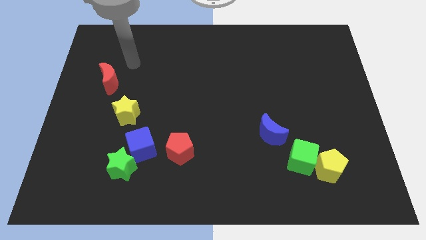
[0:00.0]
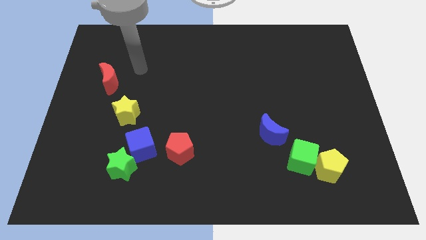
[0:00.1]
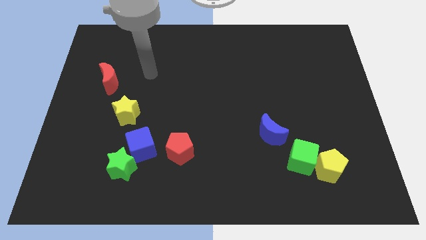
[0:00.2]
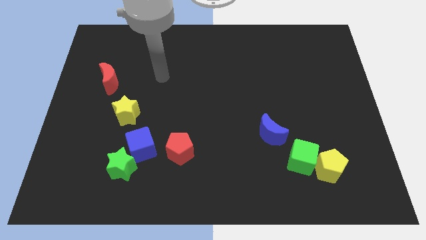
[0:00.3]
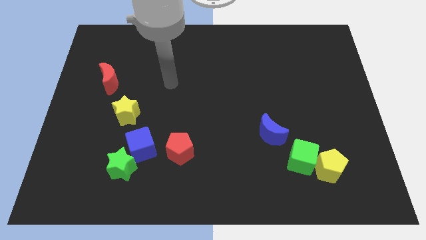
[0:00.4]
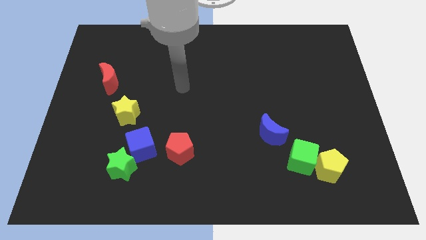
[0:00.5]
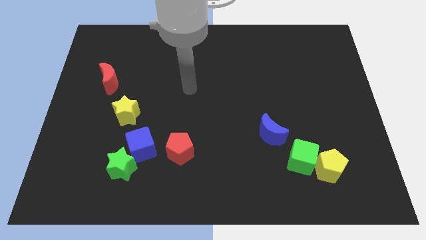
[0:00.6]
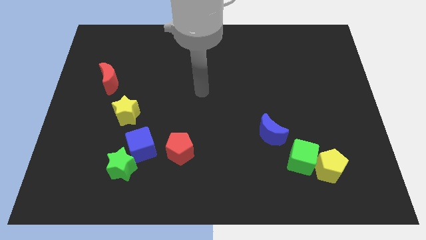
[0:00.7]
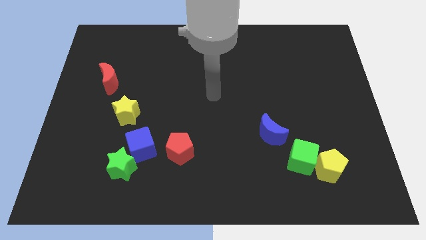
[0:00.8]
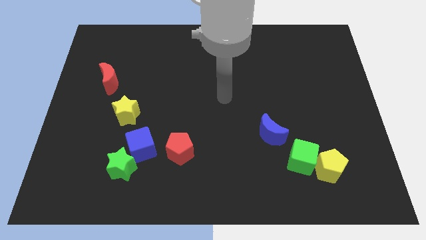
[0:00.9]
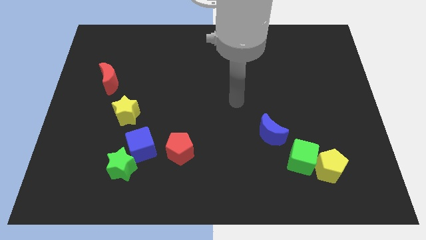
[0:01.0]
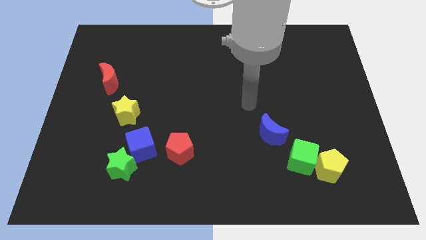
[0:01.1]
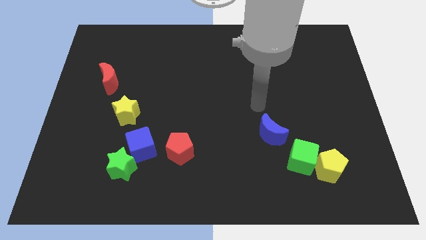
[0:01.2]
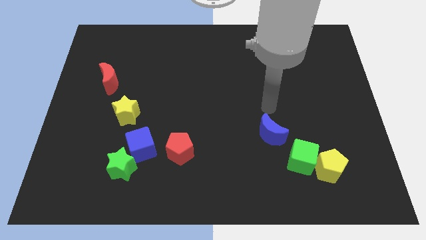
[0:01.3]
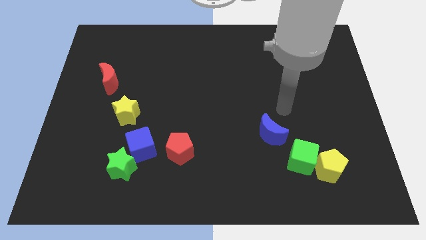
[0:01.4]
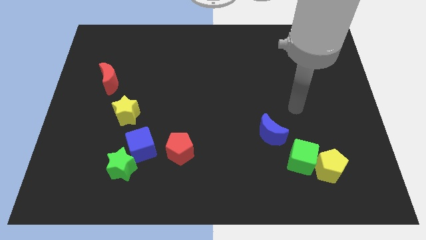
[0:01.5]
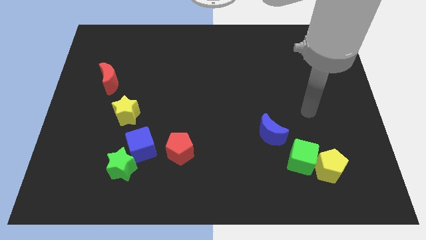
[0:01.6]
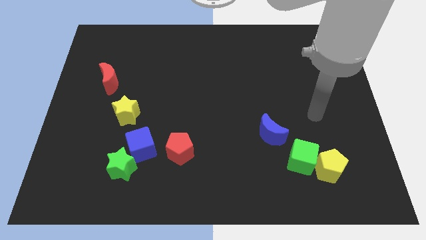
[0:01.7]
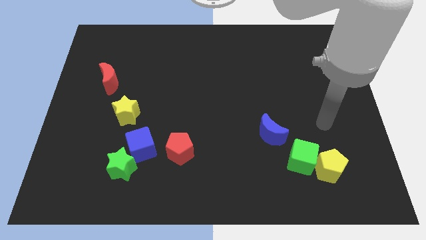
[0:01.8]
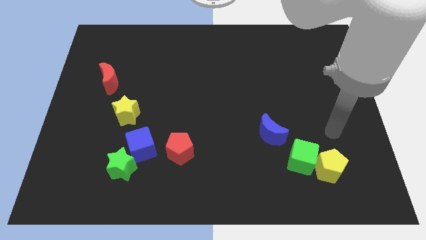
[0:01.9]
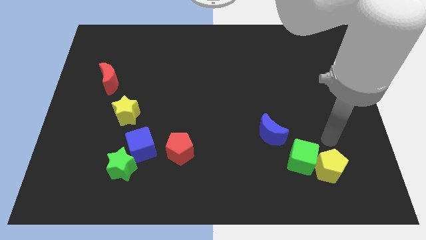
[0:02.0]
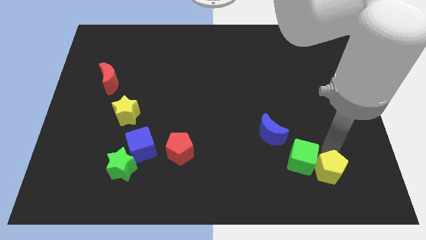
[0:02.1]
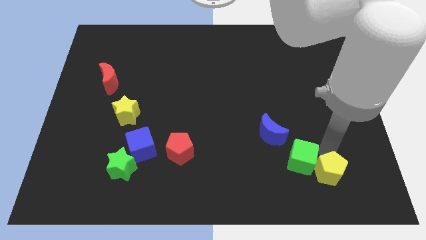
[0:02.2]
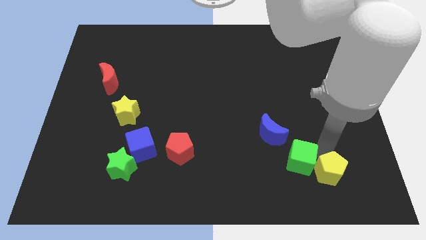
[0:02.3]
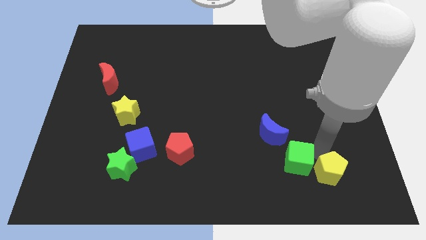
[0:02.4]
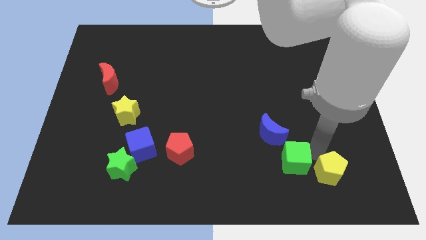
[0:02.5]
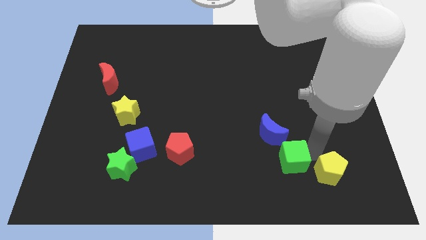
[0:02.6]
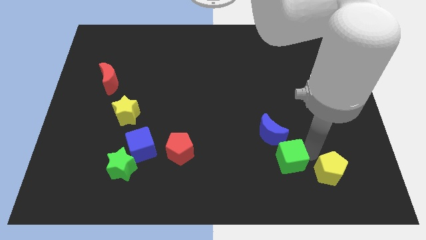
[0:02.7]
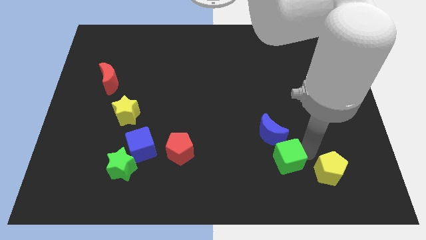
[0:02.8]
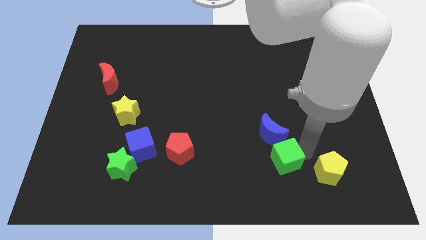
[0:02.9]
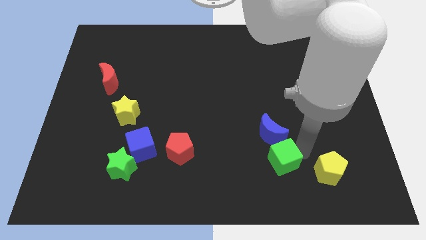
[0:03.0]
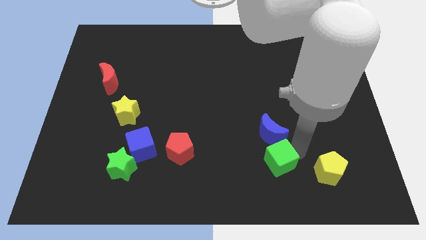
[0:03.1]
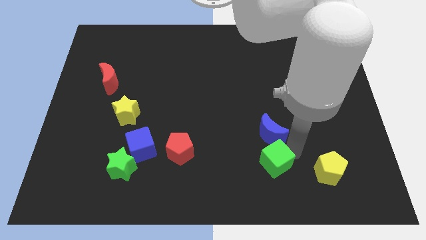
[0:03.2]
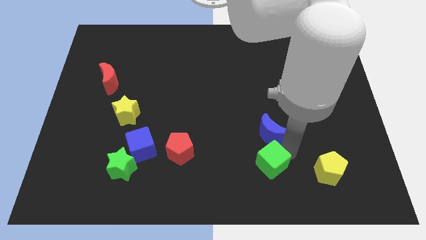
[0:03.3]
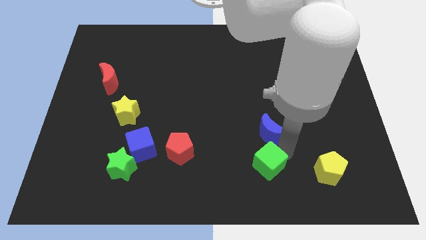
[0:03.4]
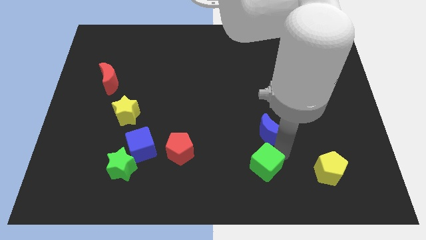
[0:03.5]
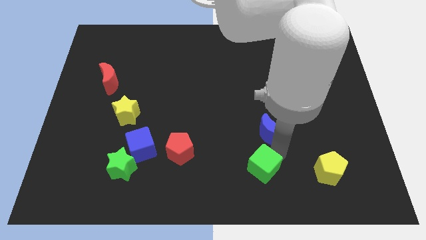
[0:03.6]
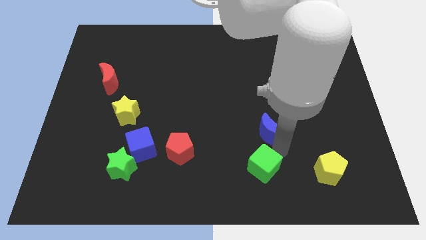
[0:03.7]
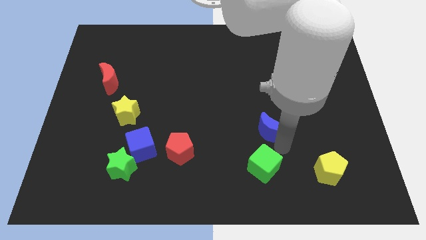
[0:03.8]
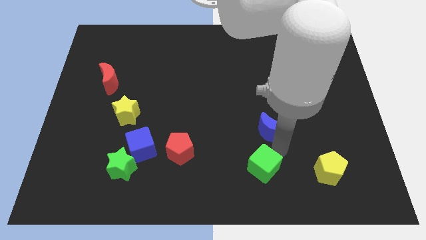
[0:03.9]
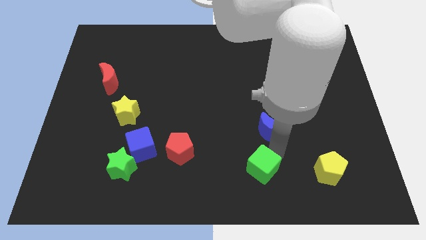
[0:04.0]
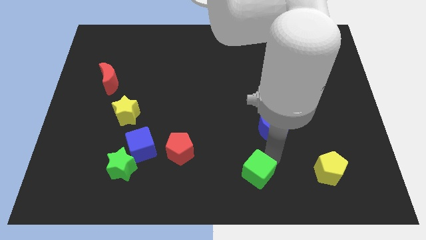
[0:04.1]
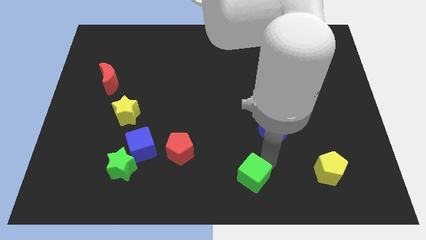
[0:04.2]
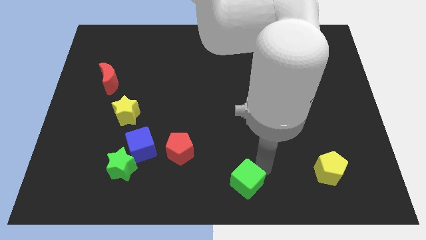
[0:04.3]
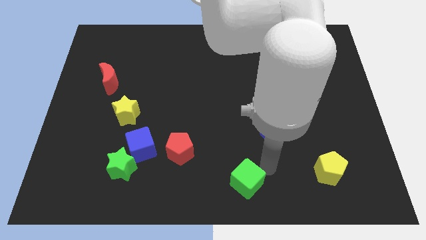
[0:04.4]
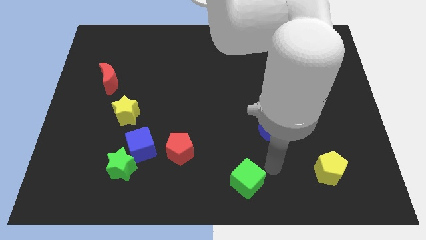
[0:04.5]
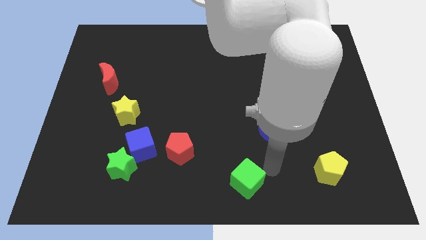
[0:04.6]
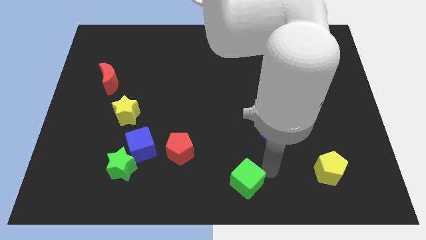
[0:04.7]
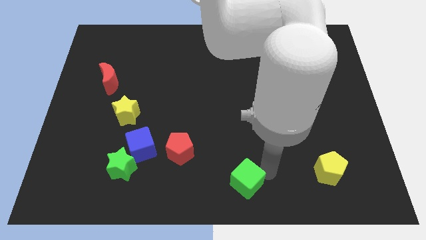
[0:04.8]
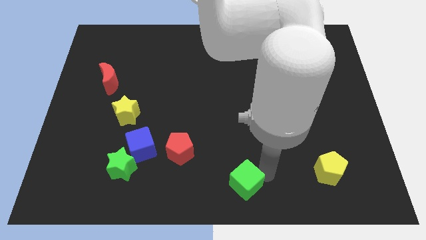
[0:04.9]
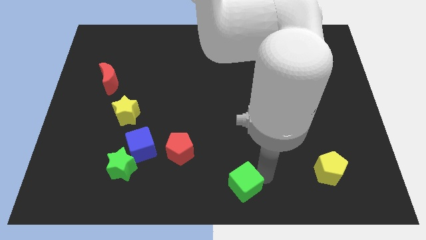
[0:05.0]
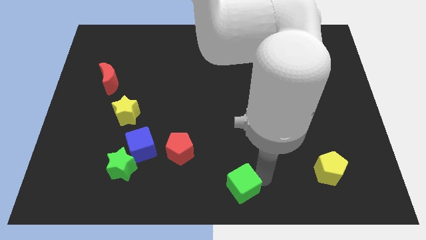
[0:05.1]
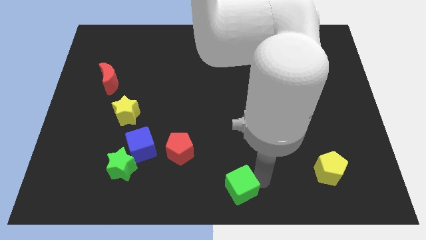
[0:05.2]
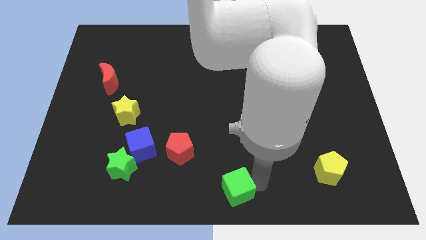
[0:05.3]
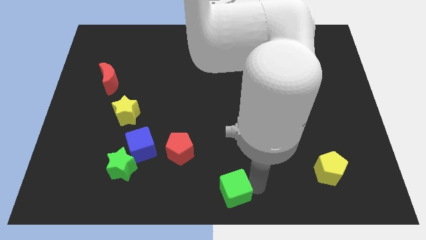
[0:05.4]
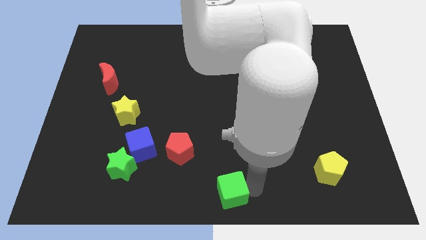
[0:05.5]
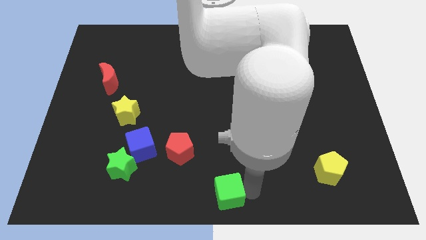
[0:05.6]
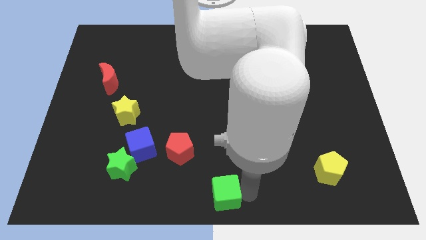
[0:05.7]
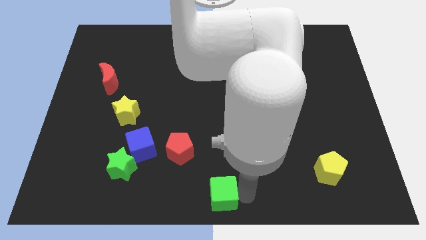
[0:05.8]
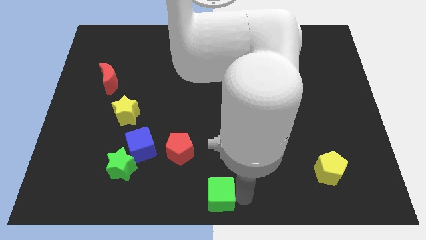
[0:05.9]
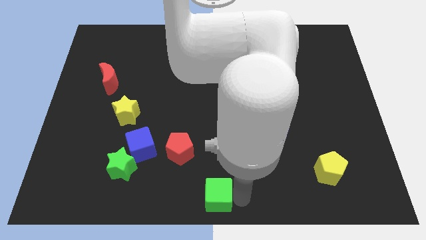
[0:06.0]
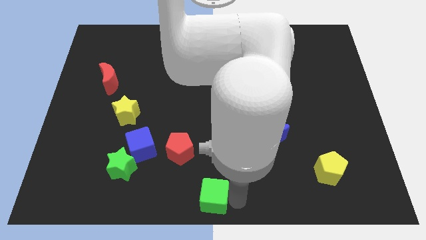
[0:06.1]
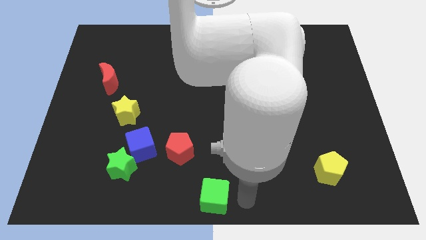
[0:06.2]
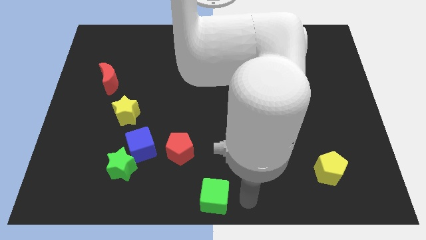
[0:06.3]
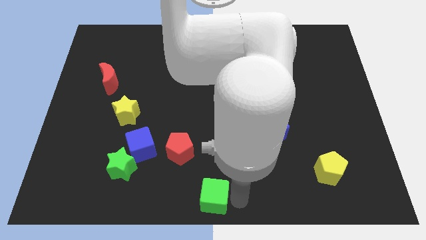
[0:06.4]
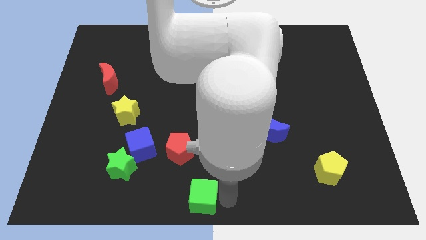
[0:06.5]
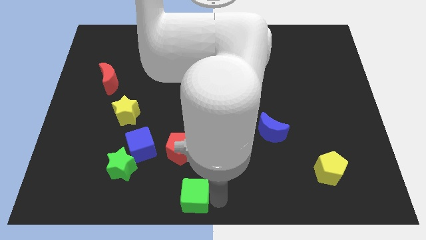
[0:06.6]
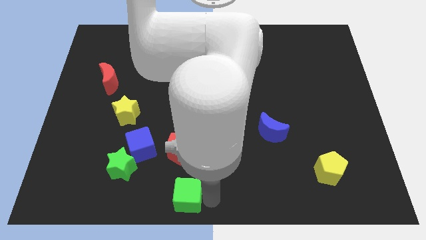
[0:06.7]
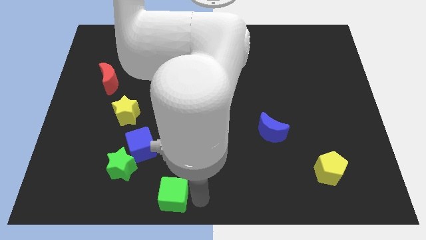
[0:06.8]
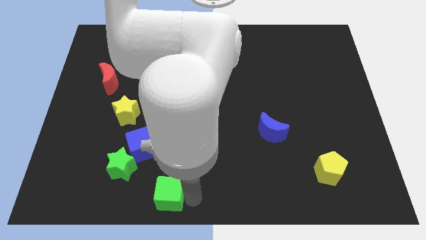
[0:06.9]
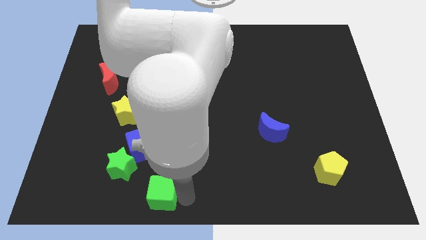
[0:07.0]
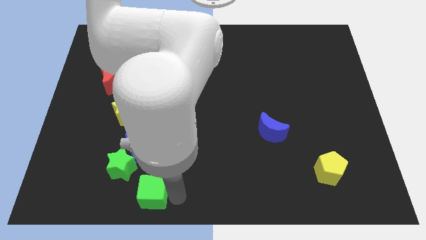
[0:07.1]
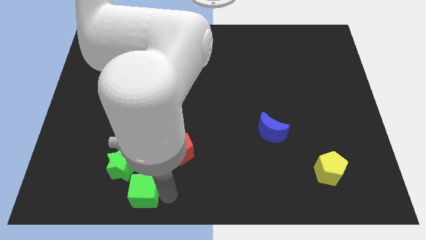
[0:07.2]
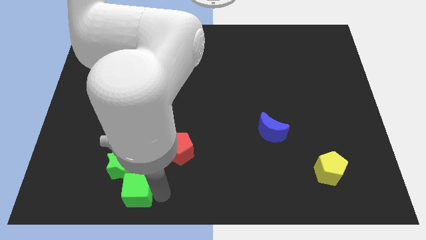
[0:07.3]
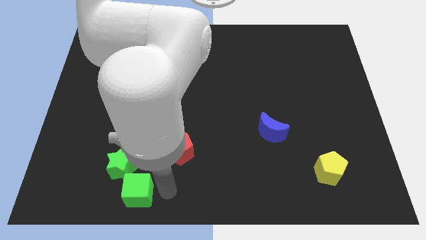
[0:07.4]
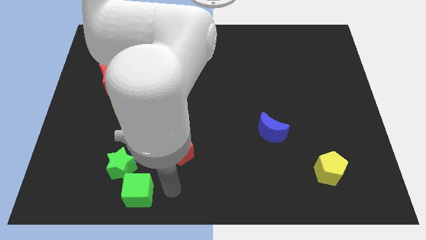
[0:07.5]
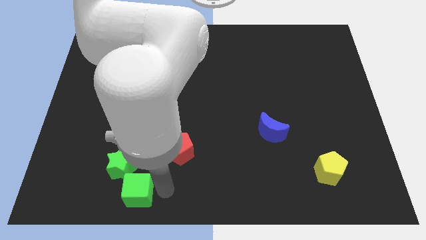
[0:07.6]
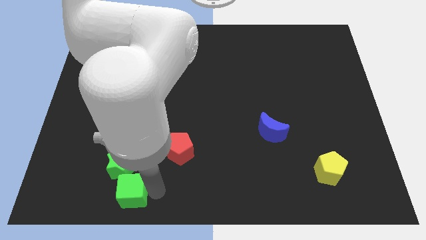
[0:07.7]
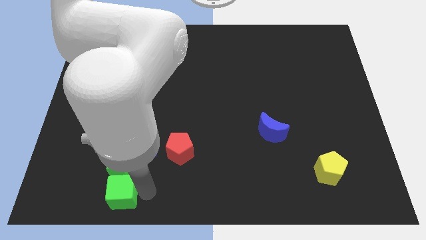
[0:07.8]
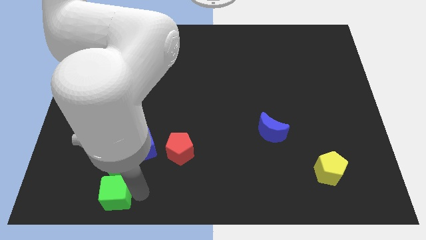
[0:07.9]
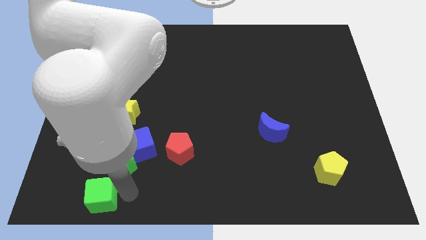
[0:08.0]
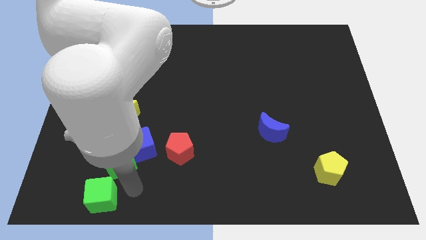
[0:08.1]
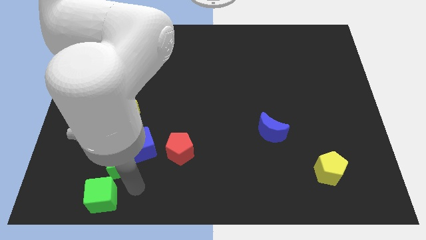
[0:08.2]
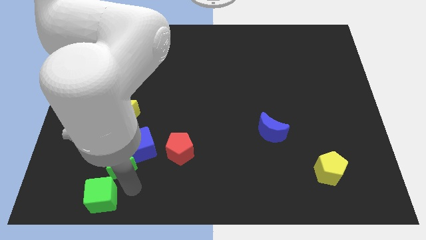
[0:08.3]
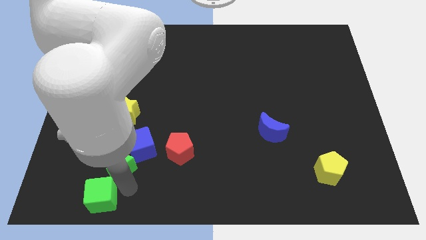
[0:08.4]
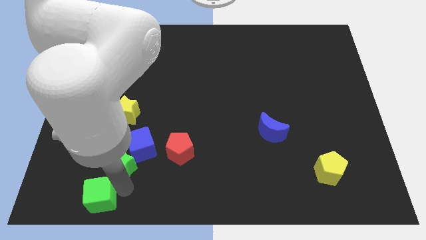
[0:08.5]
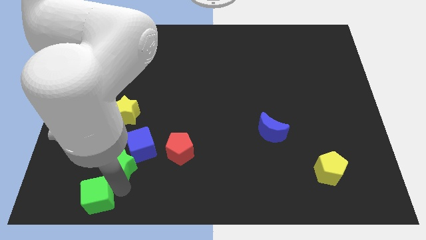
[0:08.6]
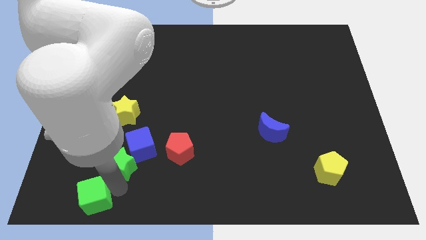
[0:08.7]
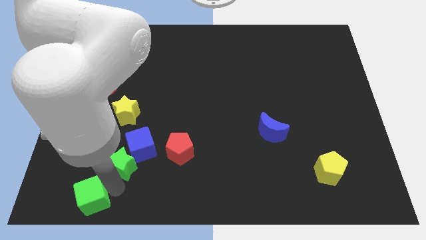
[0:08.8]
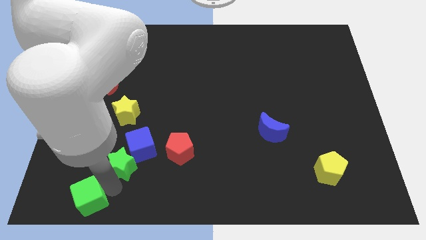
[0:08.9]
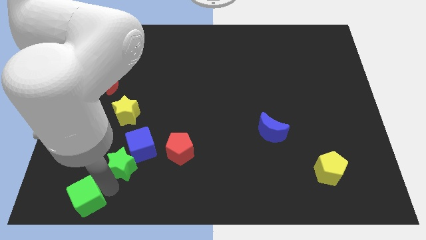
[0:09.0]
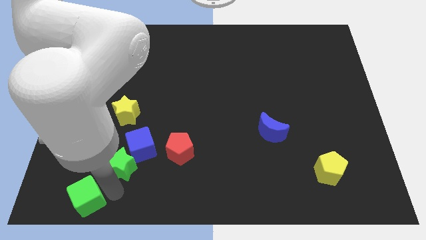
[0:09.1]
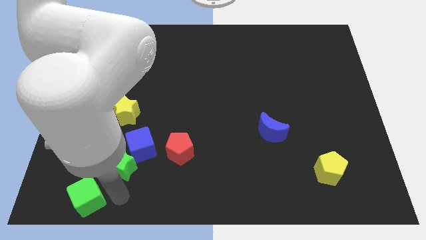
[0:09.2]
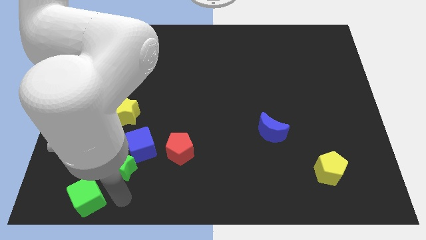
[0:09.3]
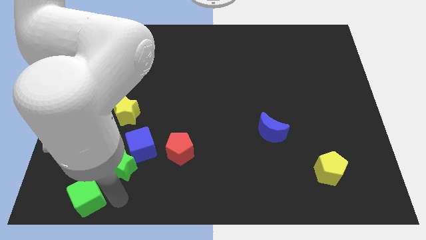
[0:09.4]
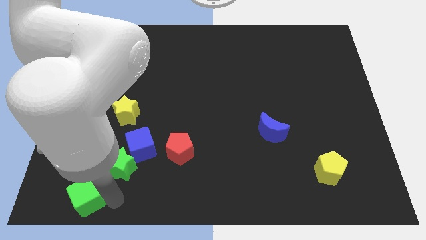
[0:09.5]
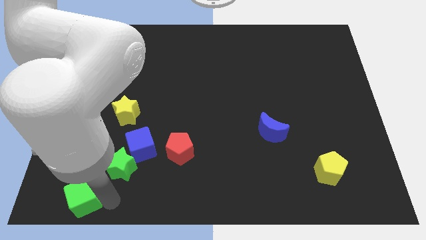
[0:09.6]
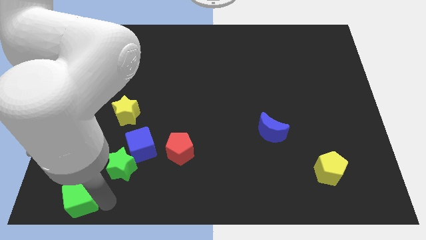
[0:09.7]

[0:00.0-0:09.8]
move the green cube to the bottom left of the board
